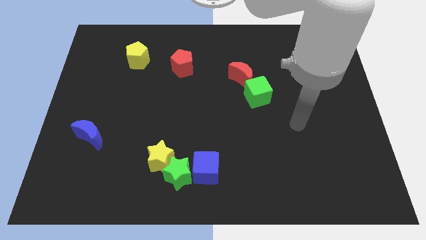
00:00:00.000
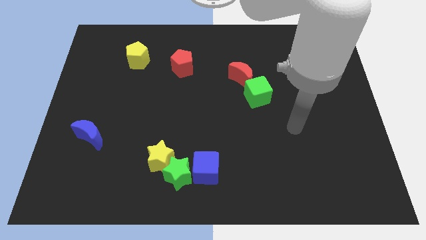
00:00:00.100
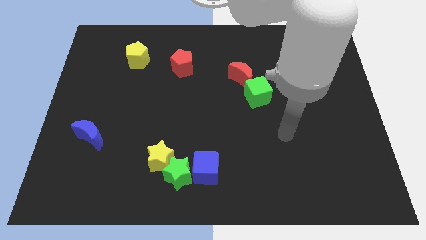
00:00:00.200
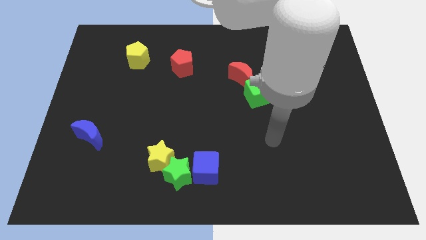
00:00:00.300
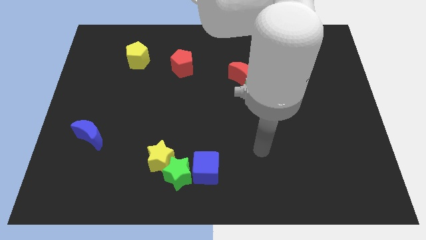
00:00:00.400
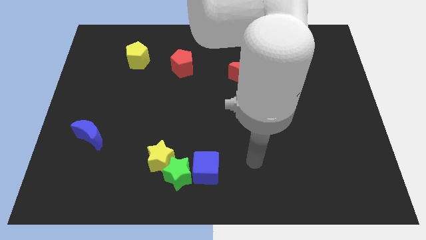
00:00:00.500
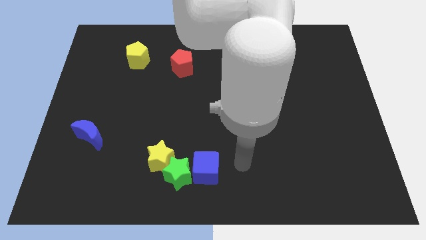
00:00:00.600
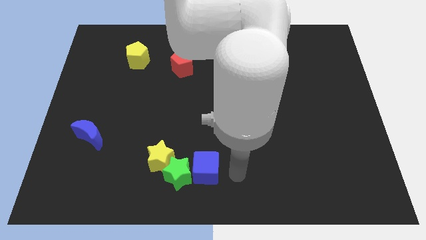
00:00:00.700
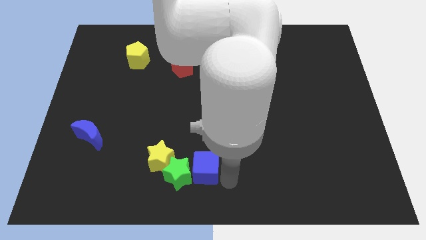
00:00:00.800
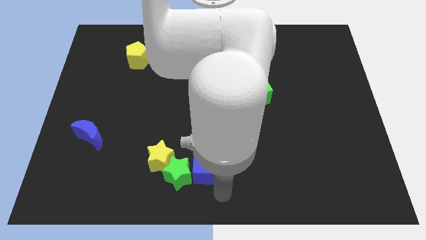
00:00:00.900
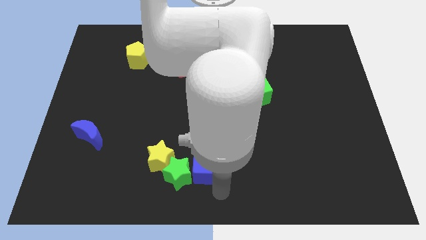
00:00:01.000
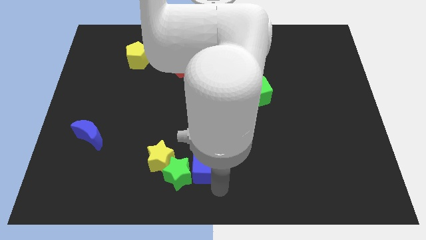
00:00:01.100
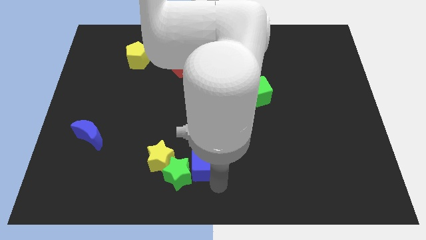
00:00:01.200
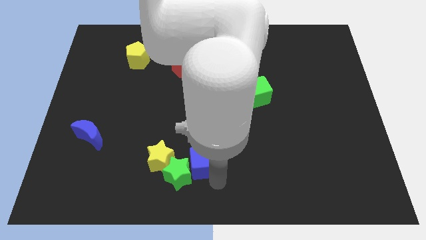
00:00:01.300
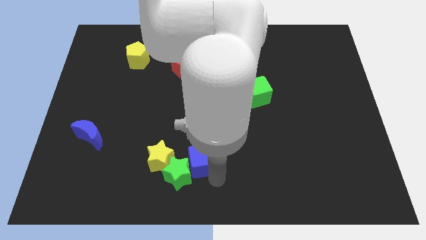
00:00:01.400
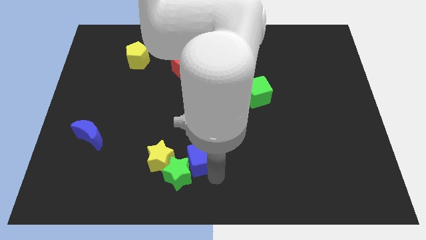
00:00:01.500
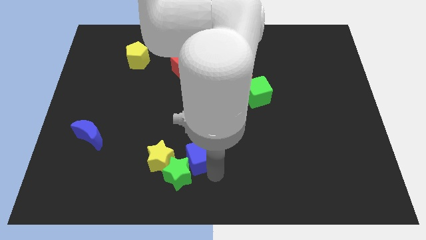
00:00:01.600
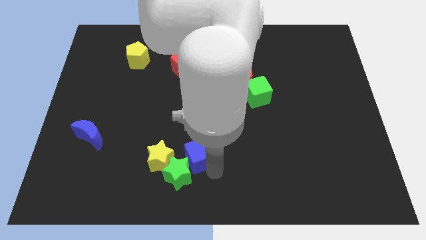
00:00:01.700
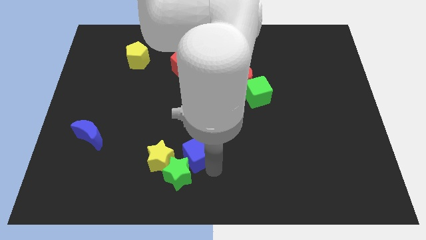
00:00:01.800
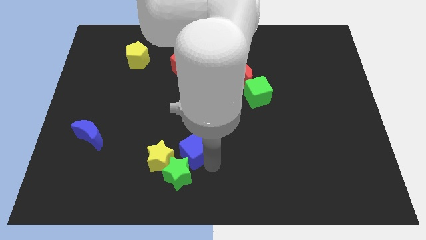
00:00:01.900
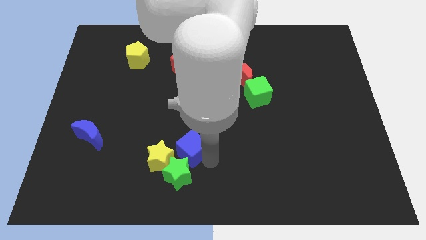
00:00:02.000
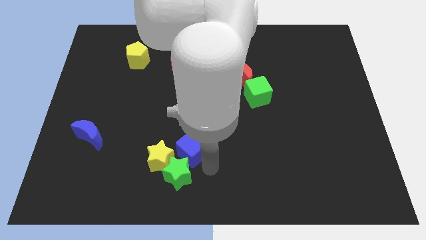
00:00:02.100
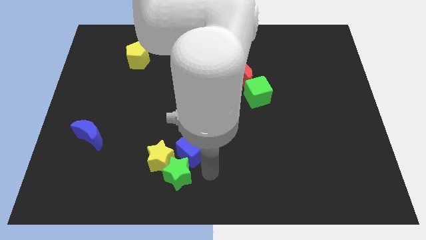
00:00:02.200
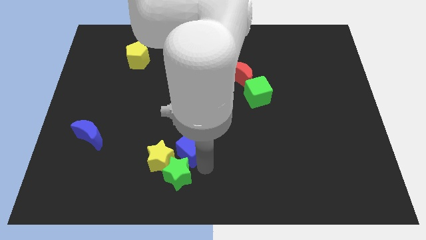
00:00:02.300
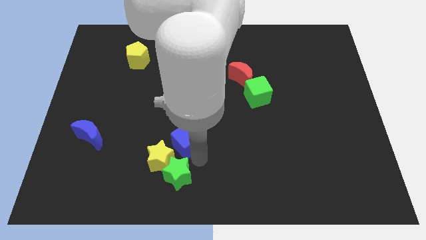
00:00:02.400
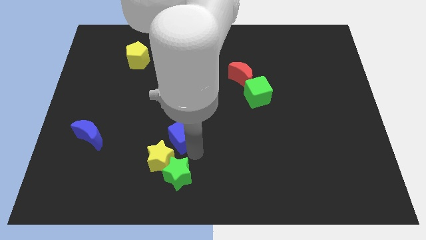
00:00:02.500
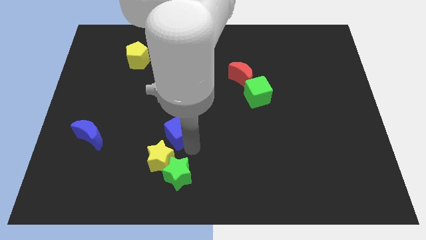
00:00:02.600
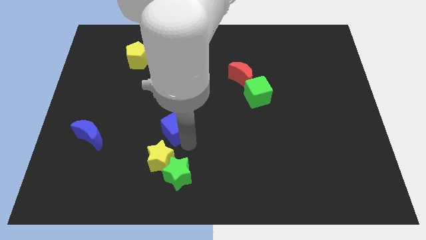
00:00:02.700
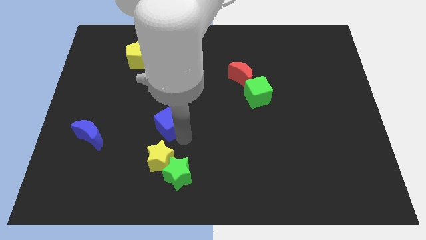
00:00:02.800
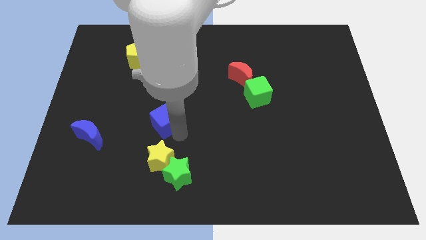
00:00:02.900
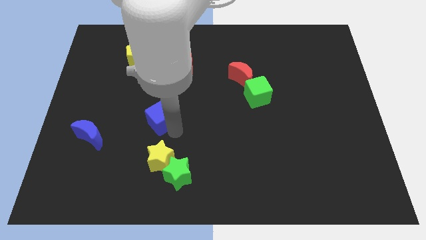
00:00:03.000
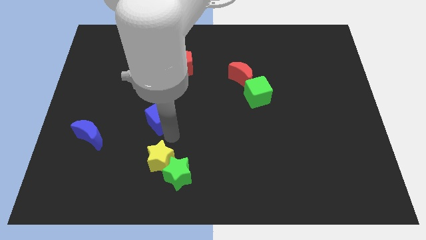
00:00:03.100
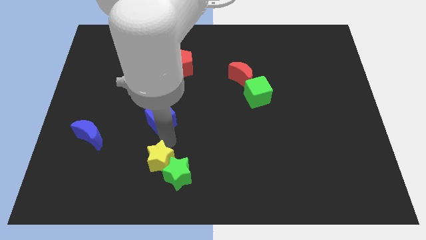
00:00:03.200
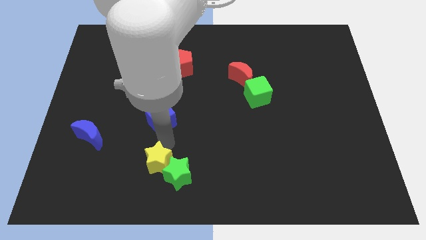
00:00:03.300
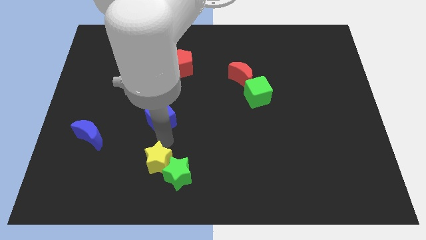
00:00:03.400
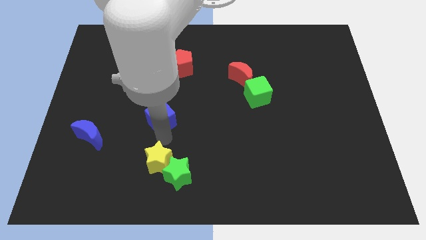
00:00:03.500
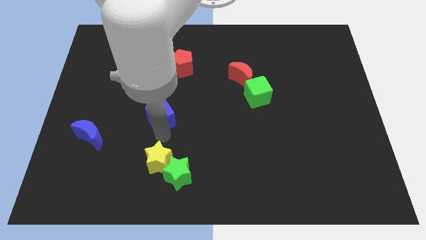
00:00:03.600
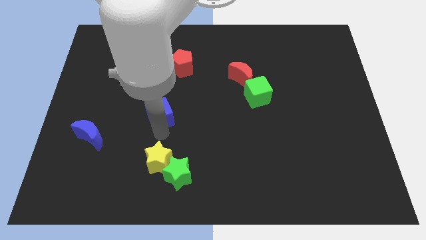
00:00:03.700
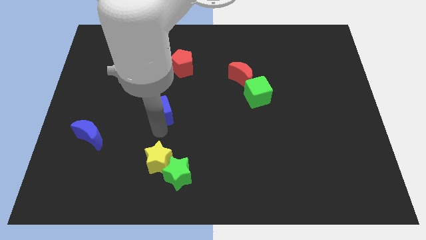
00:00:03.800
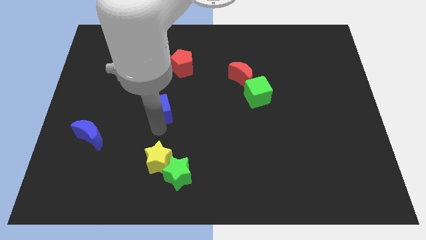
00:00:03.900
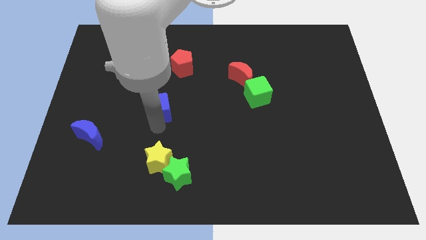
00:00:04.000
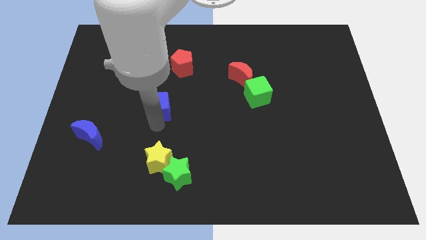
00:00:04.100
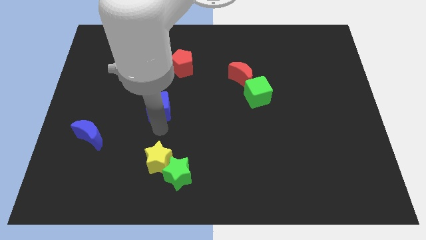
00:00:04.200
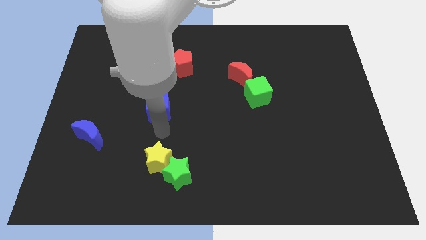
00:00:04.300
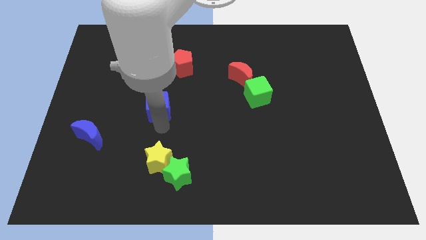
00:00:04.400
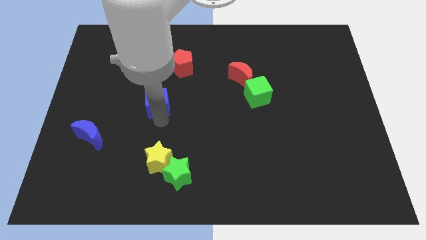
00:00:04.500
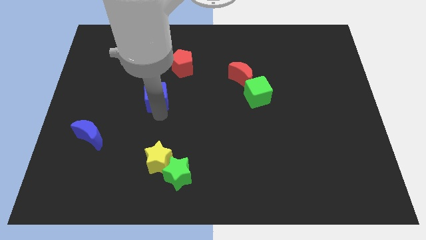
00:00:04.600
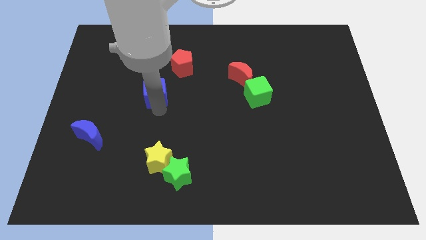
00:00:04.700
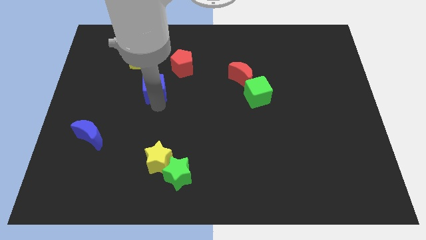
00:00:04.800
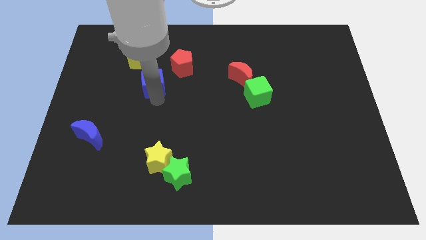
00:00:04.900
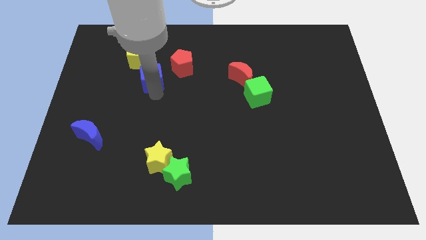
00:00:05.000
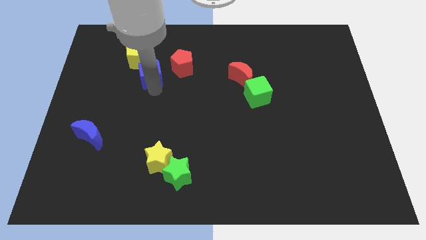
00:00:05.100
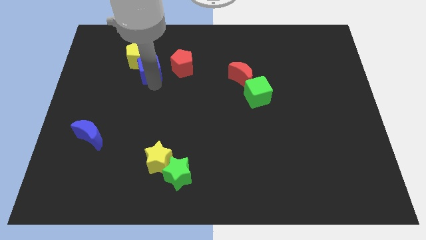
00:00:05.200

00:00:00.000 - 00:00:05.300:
put the blue cube to the yellow pentagon

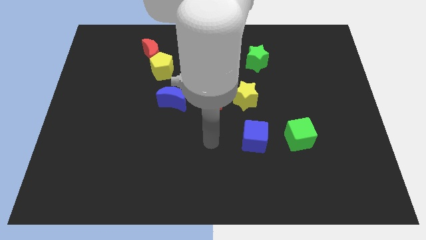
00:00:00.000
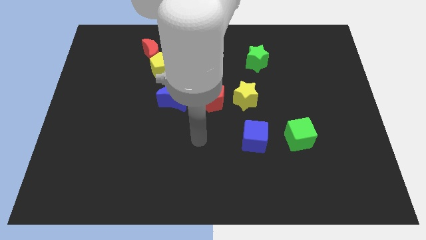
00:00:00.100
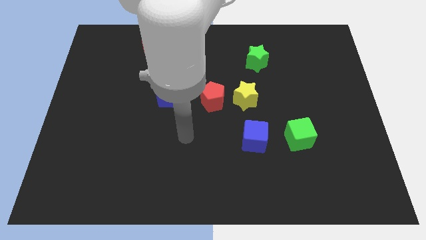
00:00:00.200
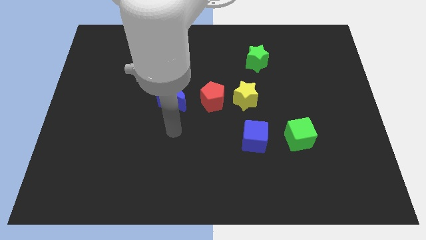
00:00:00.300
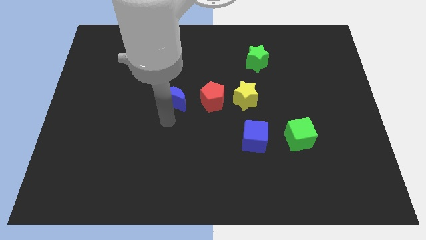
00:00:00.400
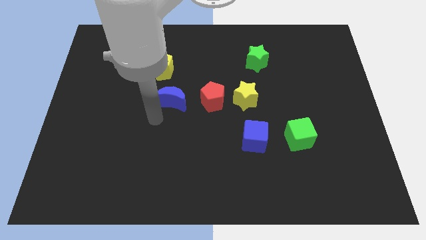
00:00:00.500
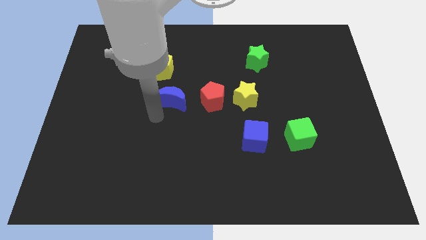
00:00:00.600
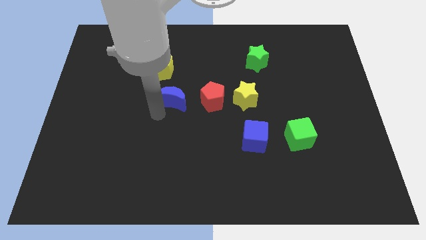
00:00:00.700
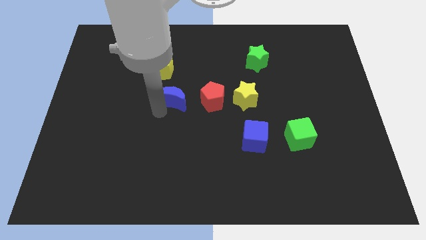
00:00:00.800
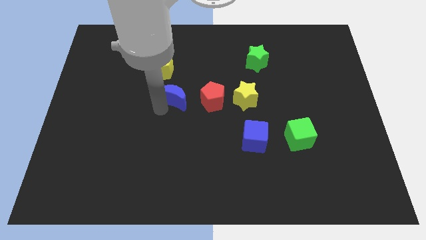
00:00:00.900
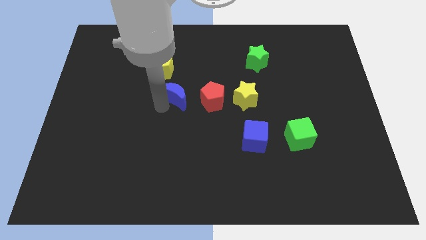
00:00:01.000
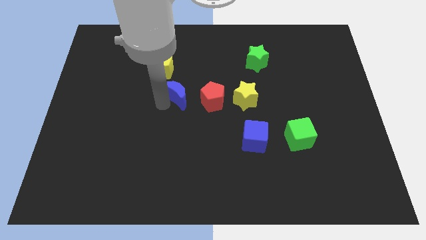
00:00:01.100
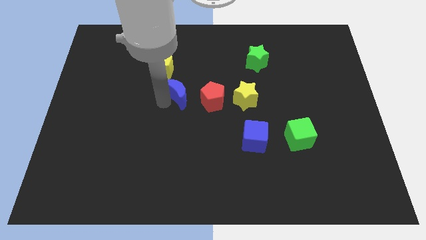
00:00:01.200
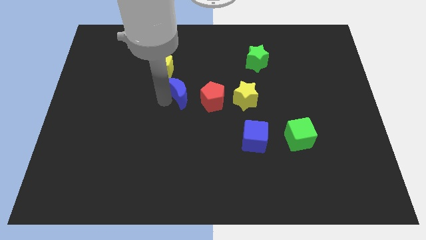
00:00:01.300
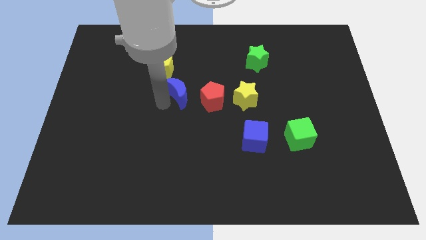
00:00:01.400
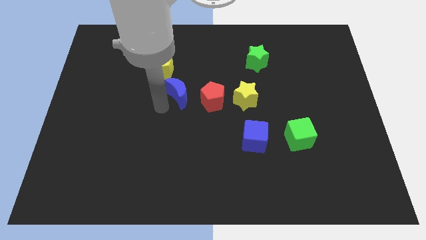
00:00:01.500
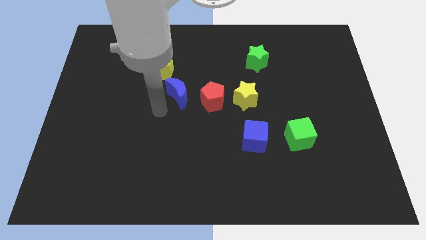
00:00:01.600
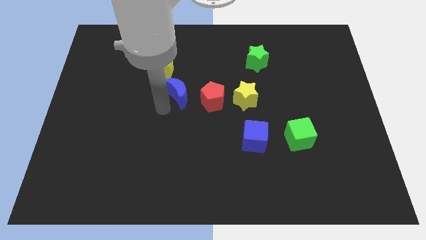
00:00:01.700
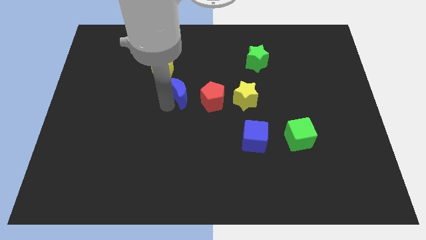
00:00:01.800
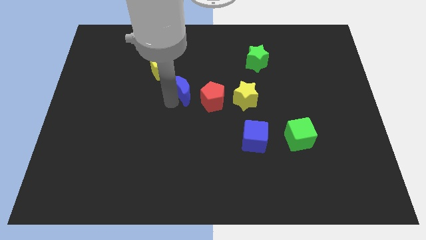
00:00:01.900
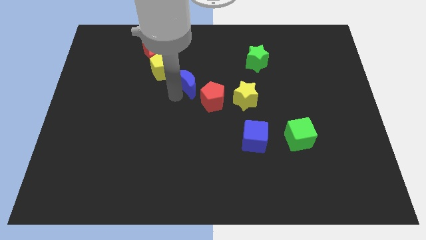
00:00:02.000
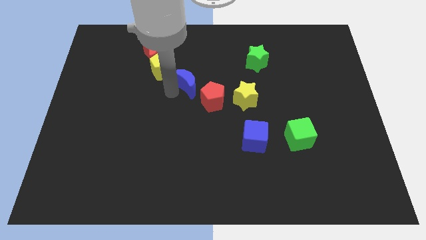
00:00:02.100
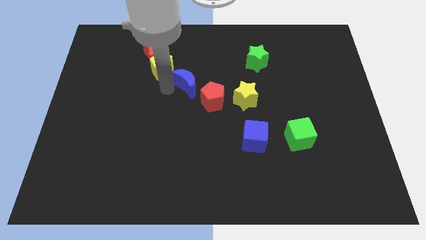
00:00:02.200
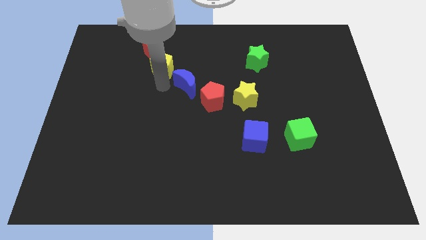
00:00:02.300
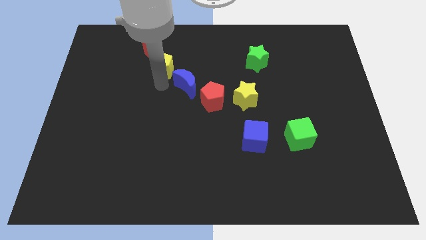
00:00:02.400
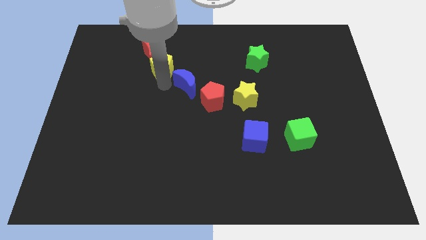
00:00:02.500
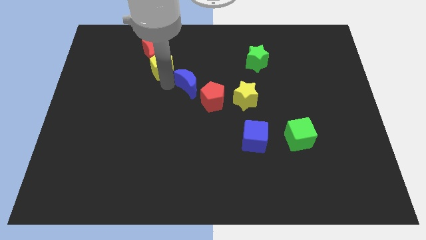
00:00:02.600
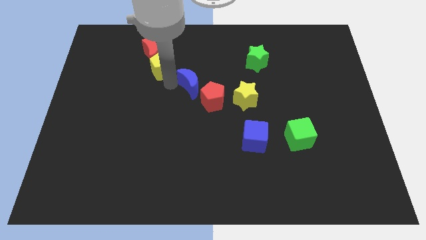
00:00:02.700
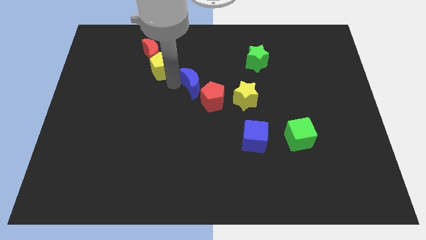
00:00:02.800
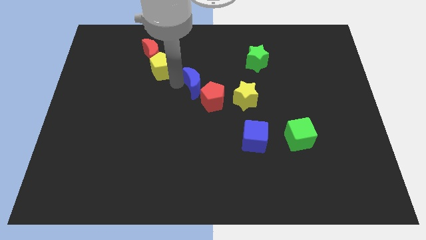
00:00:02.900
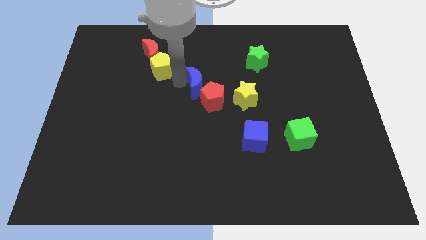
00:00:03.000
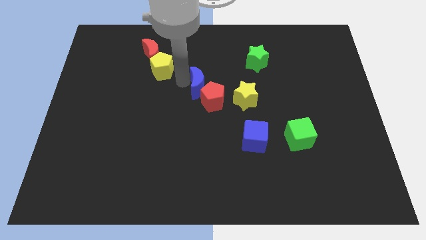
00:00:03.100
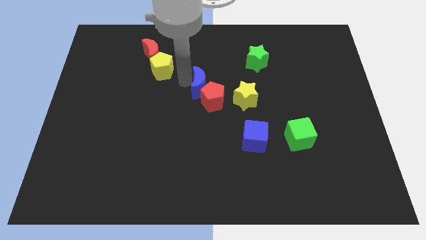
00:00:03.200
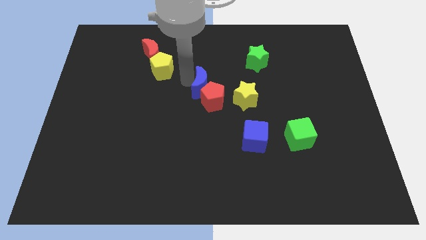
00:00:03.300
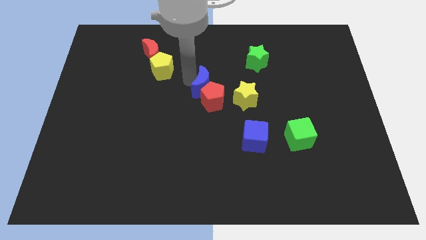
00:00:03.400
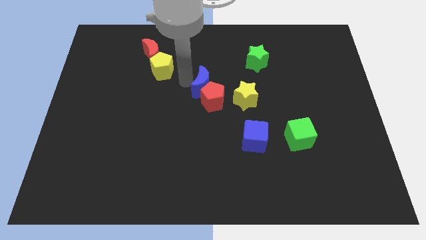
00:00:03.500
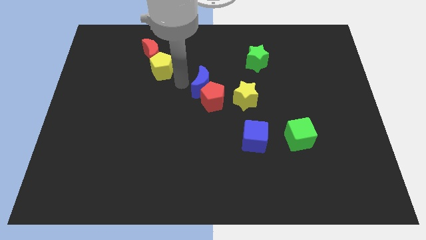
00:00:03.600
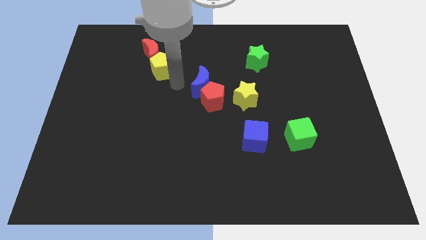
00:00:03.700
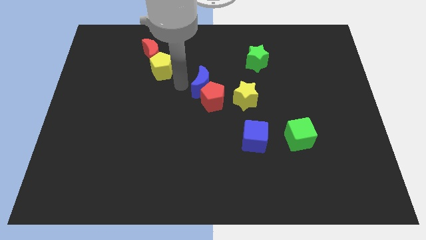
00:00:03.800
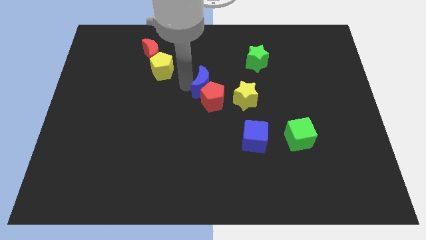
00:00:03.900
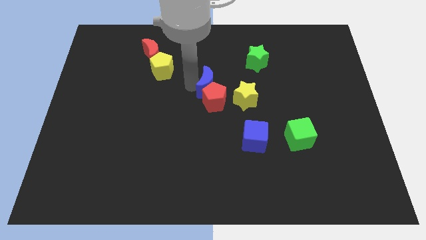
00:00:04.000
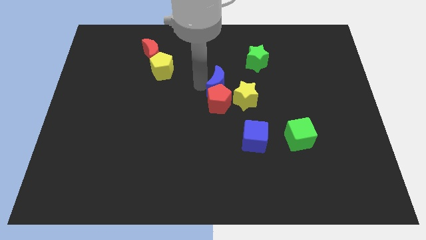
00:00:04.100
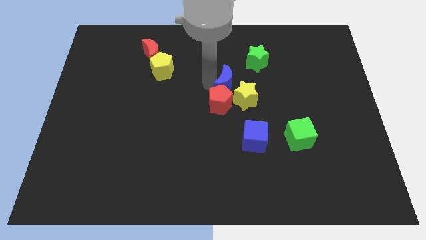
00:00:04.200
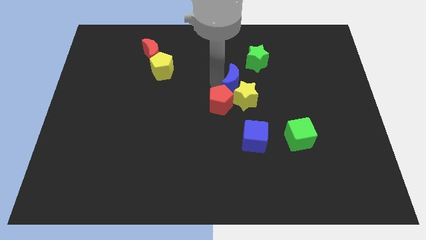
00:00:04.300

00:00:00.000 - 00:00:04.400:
put the blue moon towards the yellow star
